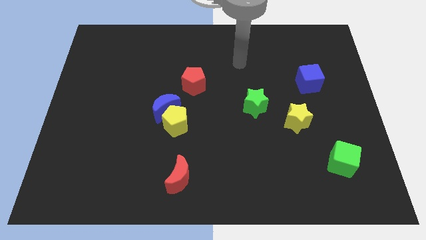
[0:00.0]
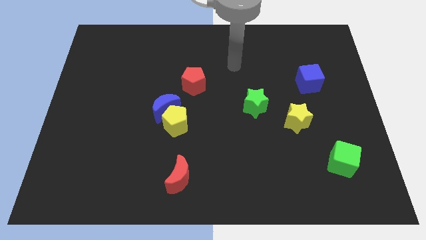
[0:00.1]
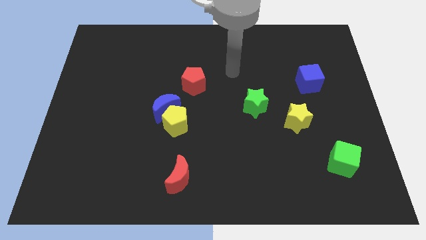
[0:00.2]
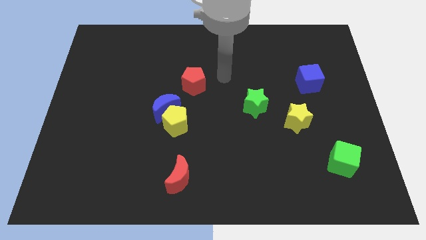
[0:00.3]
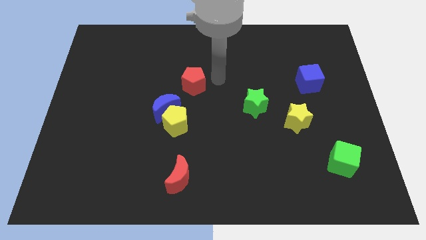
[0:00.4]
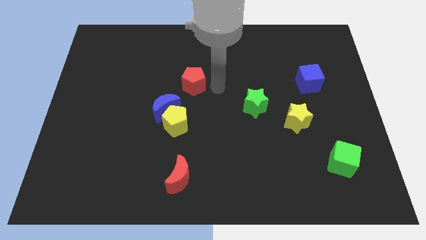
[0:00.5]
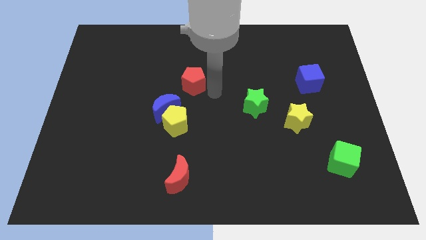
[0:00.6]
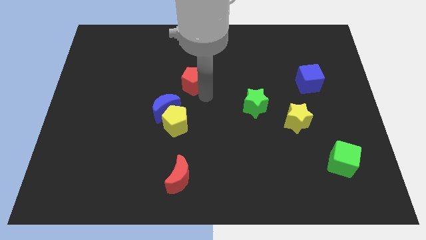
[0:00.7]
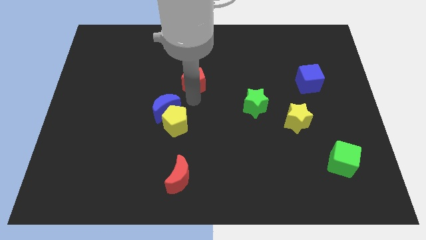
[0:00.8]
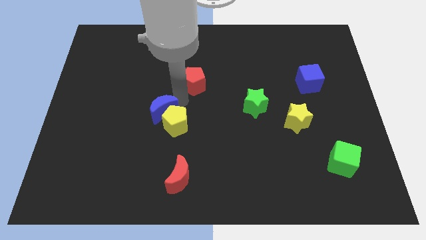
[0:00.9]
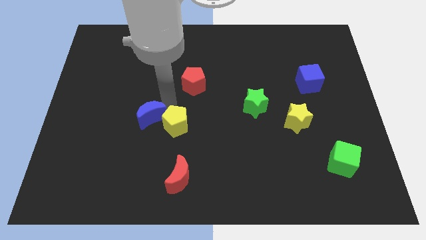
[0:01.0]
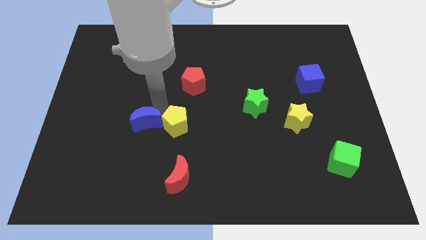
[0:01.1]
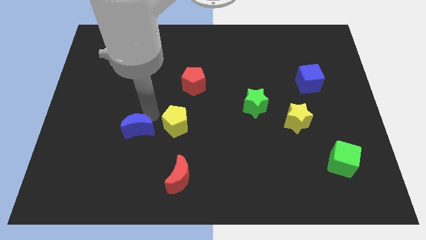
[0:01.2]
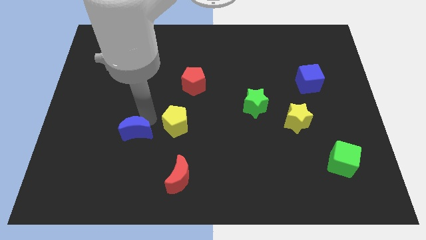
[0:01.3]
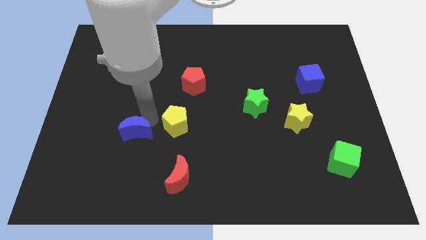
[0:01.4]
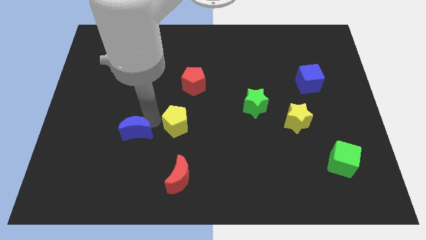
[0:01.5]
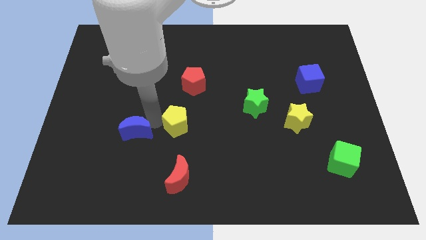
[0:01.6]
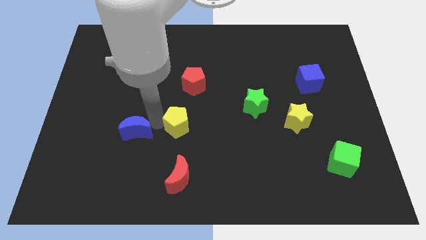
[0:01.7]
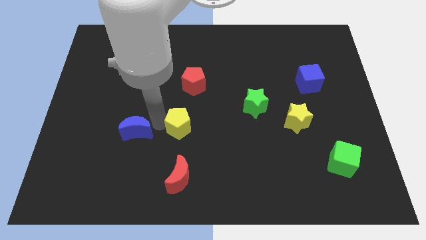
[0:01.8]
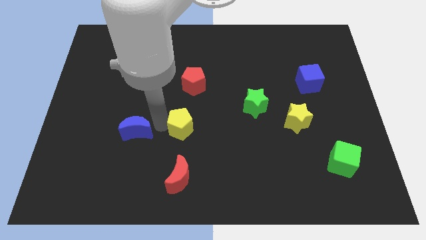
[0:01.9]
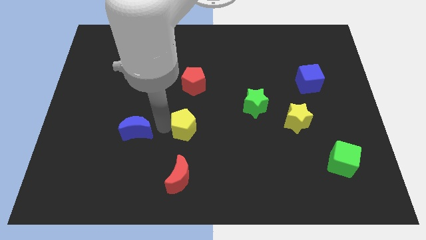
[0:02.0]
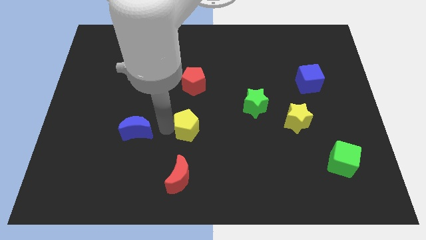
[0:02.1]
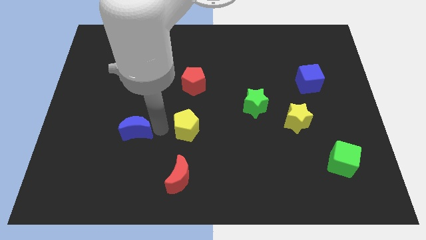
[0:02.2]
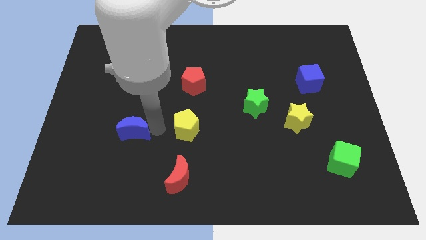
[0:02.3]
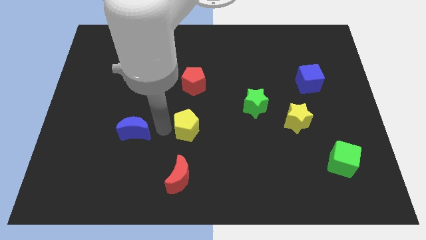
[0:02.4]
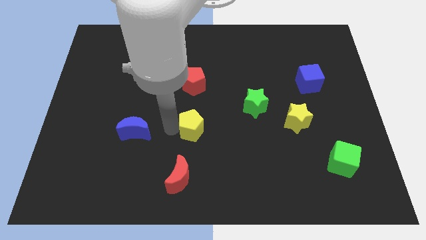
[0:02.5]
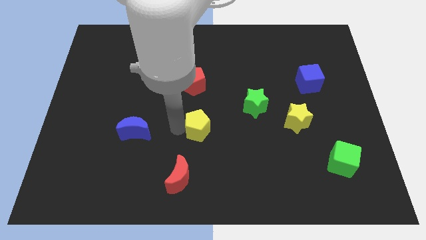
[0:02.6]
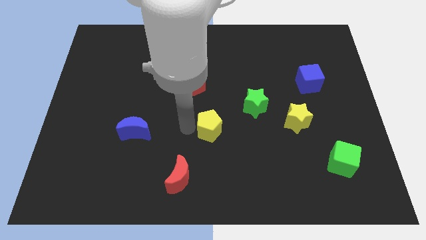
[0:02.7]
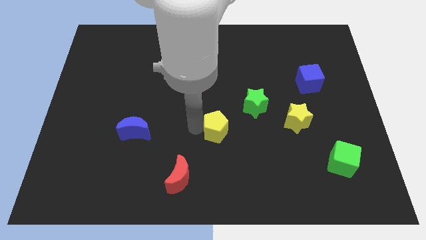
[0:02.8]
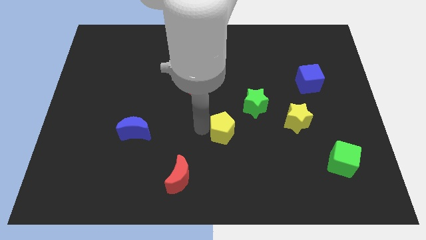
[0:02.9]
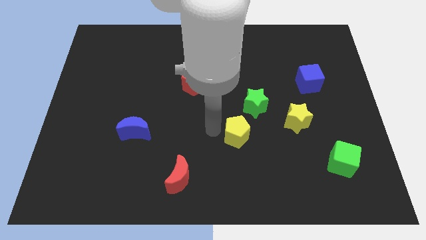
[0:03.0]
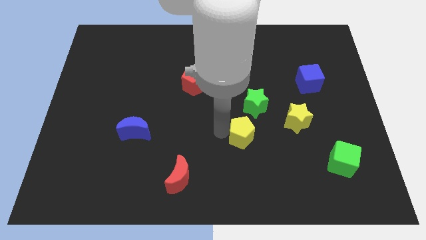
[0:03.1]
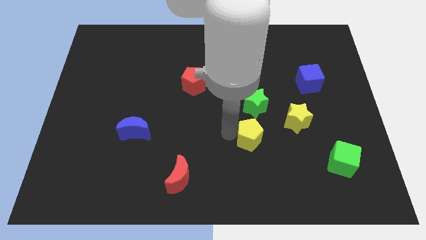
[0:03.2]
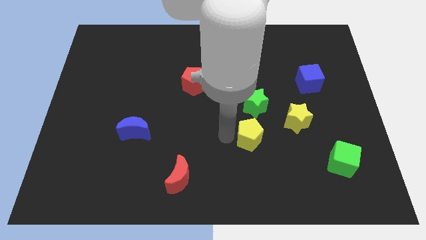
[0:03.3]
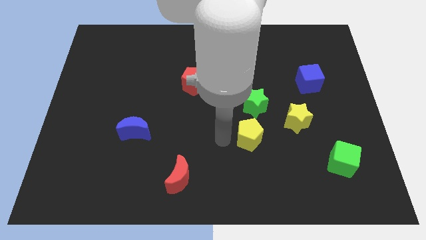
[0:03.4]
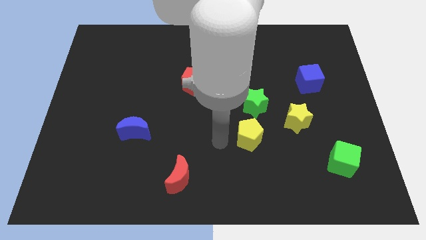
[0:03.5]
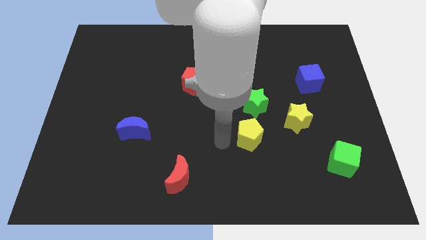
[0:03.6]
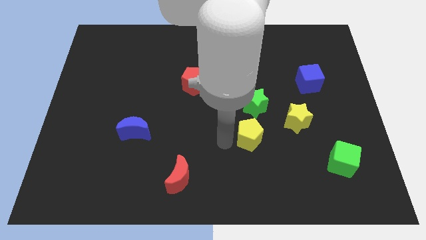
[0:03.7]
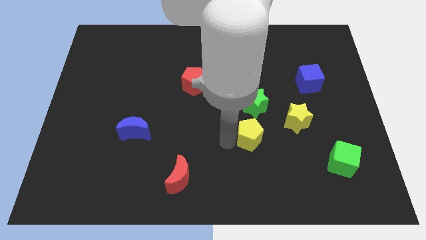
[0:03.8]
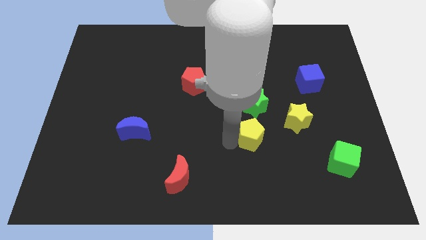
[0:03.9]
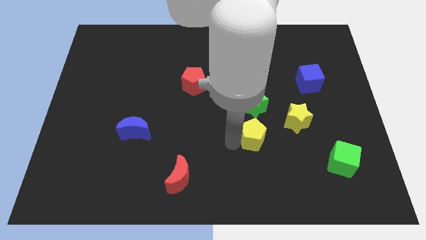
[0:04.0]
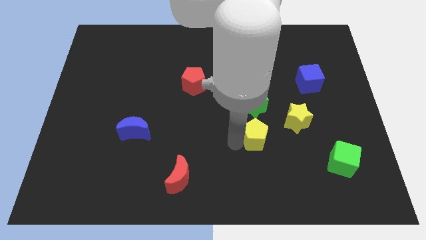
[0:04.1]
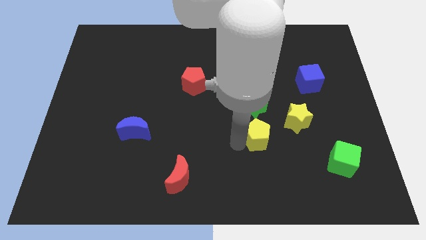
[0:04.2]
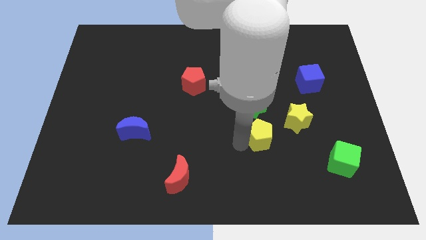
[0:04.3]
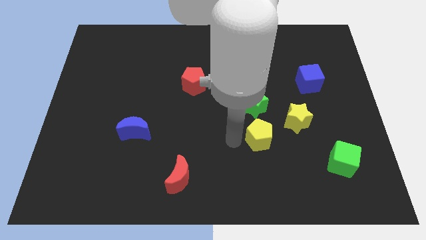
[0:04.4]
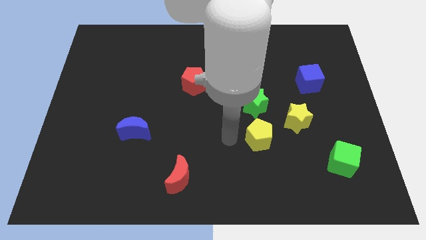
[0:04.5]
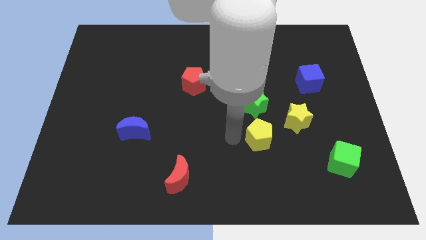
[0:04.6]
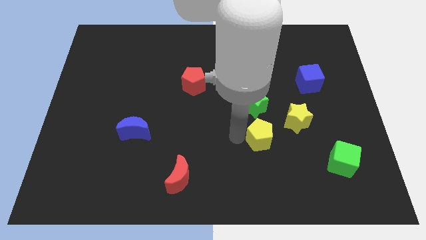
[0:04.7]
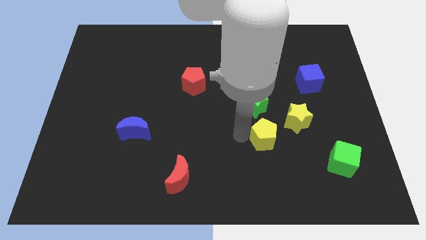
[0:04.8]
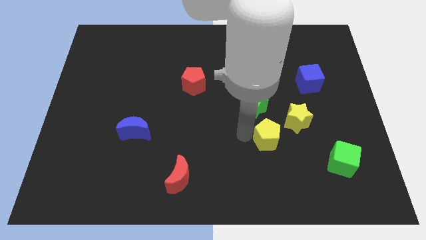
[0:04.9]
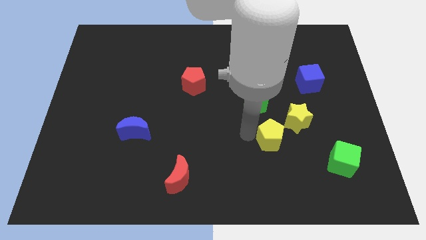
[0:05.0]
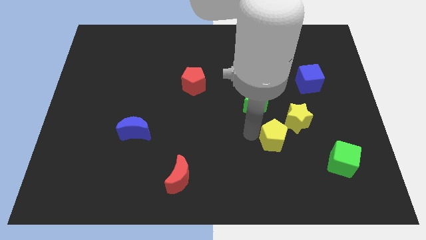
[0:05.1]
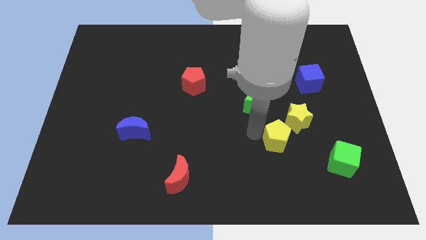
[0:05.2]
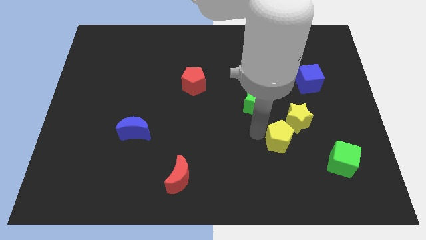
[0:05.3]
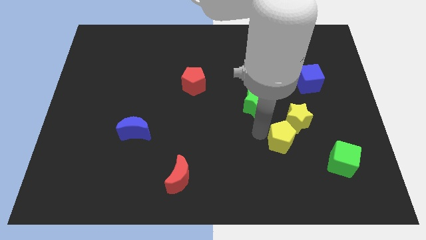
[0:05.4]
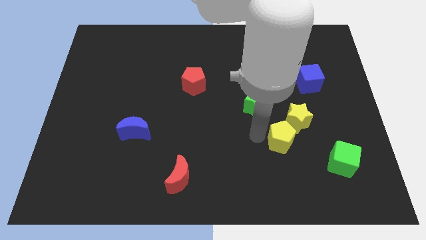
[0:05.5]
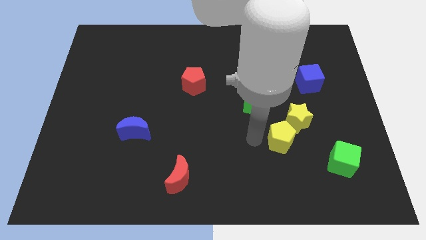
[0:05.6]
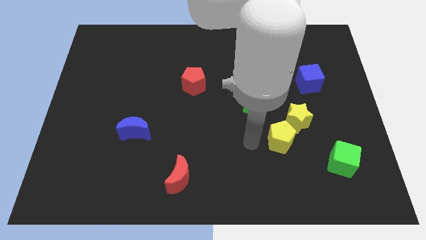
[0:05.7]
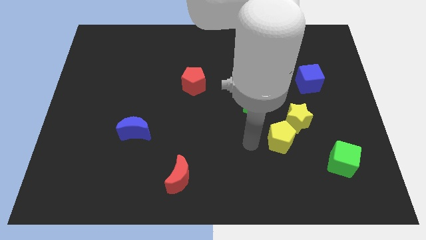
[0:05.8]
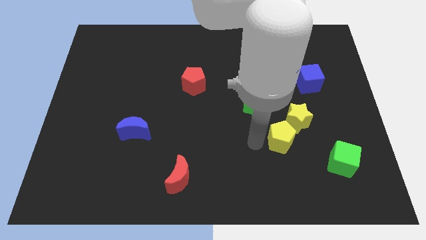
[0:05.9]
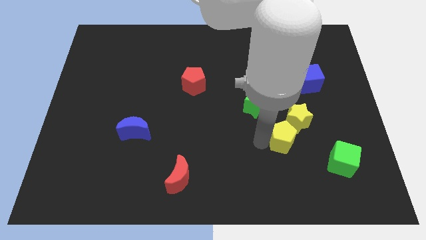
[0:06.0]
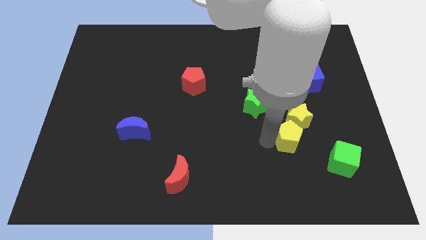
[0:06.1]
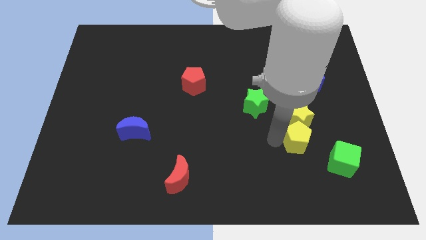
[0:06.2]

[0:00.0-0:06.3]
slide the yellow pentagon to the top left side of the green cube
